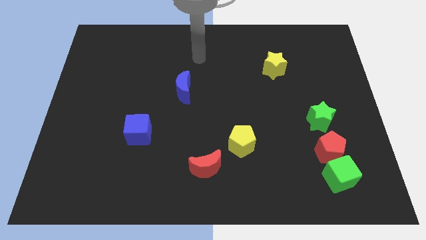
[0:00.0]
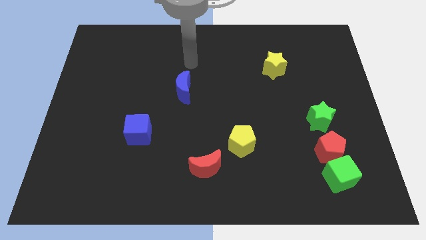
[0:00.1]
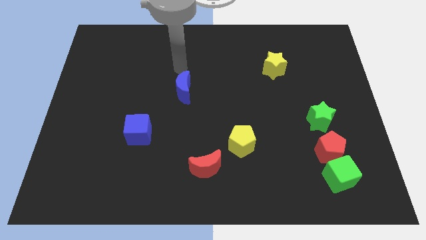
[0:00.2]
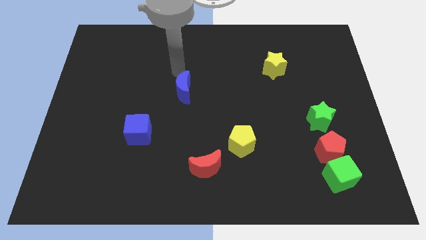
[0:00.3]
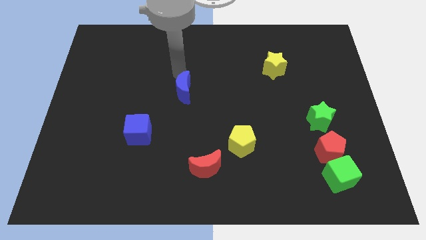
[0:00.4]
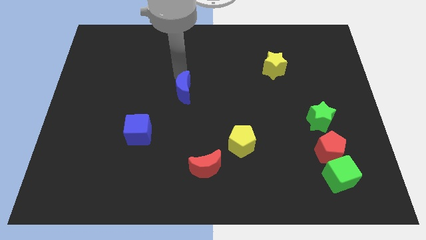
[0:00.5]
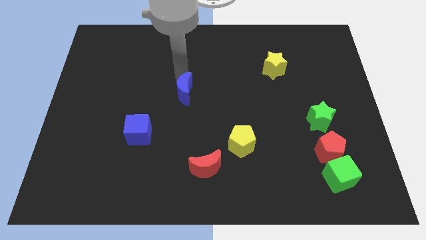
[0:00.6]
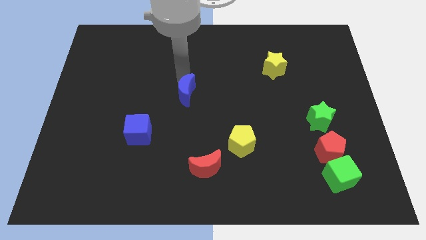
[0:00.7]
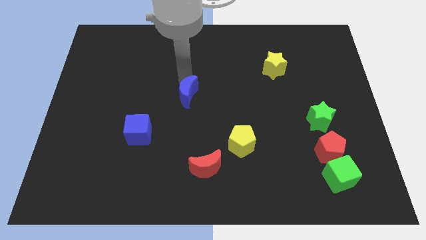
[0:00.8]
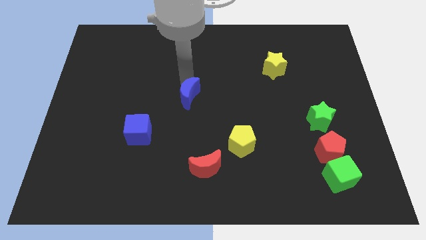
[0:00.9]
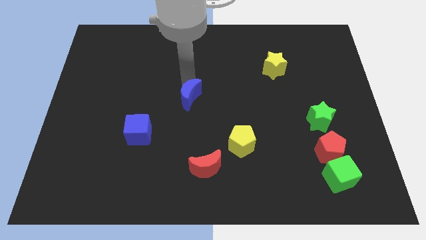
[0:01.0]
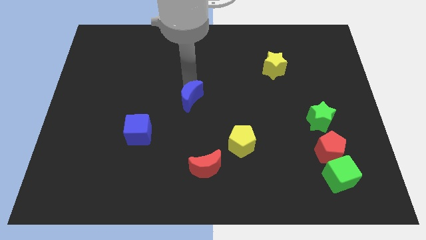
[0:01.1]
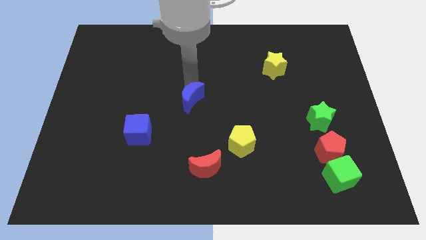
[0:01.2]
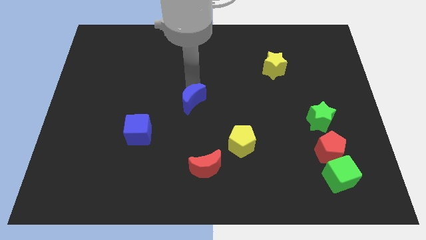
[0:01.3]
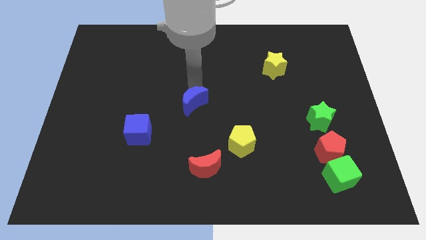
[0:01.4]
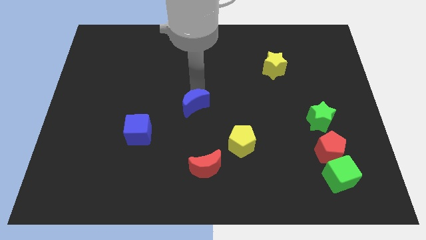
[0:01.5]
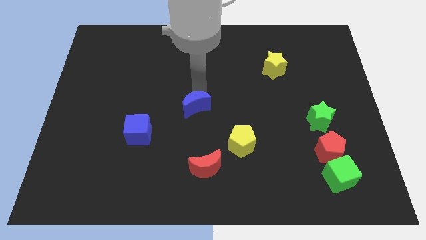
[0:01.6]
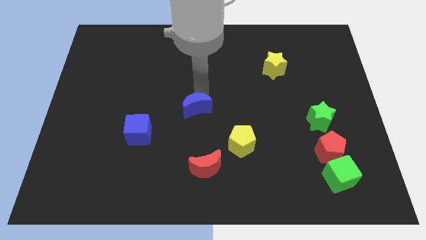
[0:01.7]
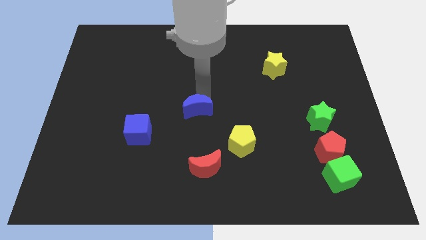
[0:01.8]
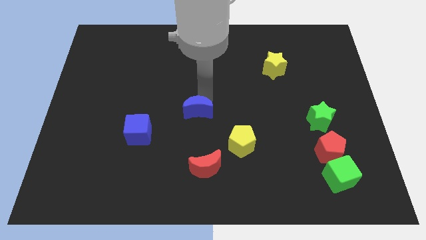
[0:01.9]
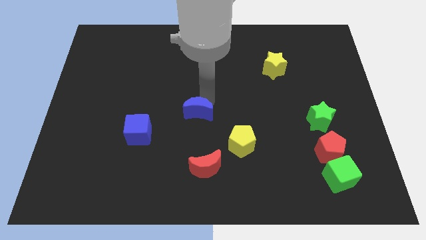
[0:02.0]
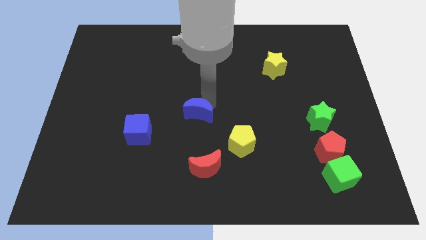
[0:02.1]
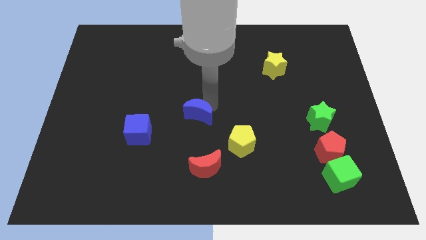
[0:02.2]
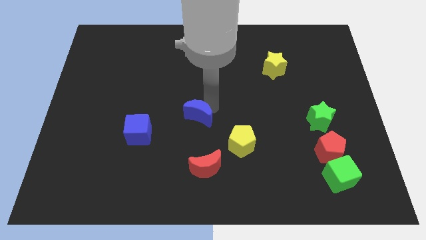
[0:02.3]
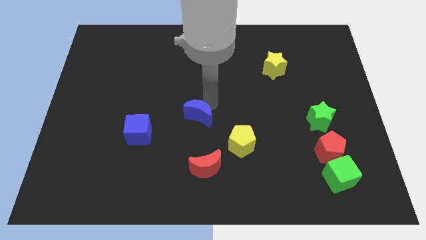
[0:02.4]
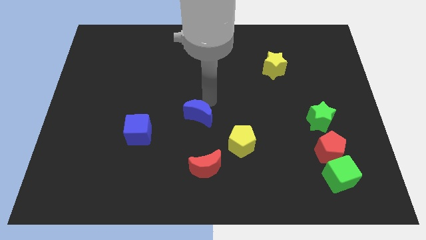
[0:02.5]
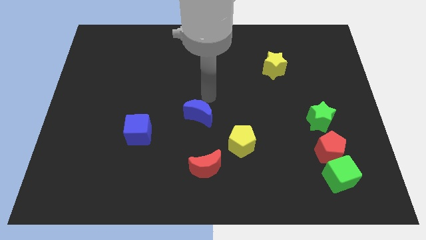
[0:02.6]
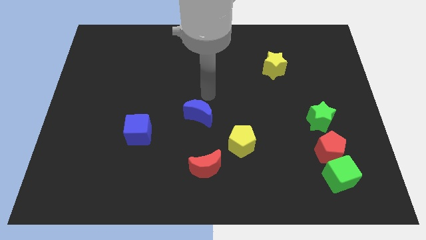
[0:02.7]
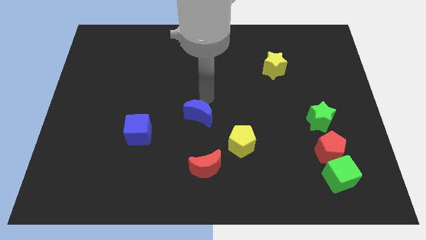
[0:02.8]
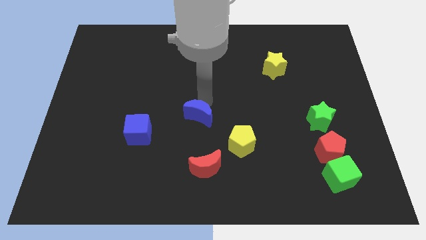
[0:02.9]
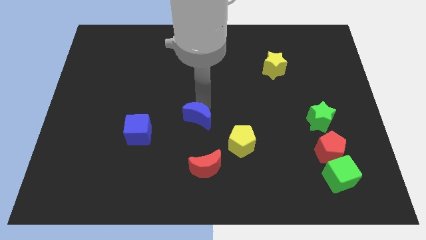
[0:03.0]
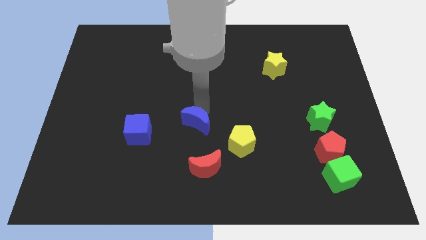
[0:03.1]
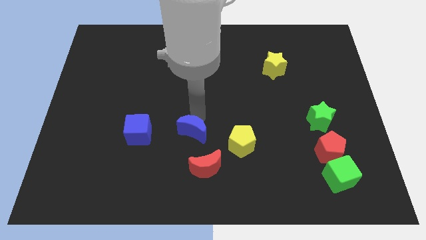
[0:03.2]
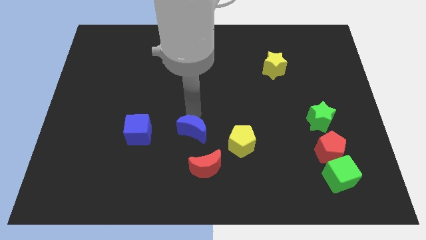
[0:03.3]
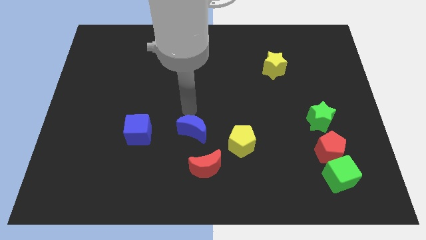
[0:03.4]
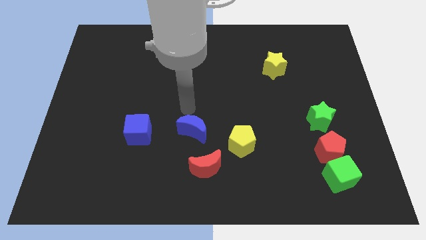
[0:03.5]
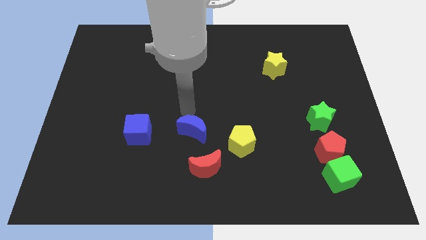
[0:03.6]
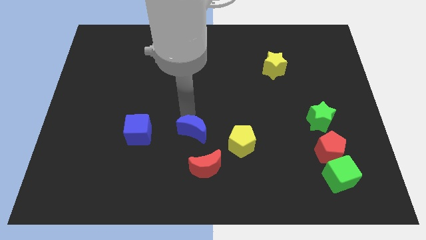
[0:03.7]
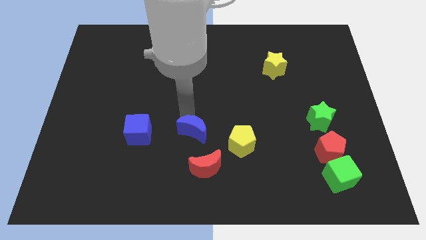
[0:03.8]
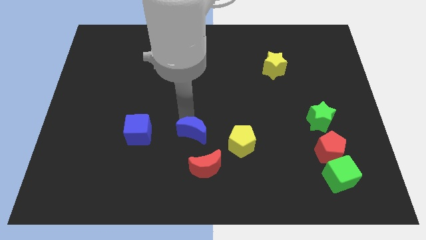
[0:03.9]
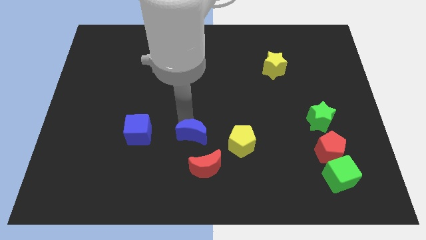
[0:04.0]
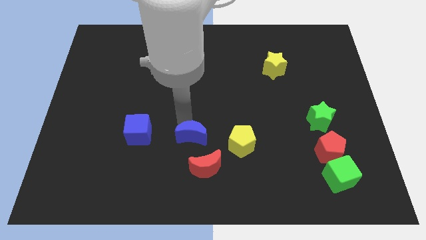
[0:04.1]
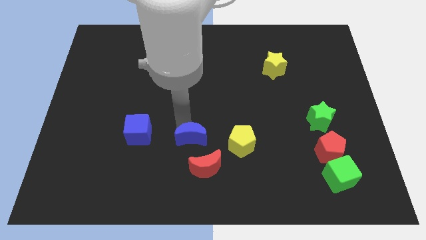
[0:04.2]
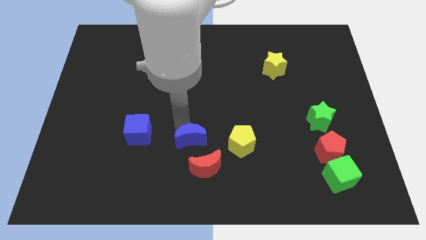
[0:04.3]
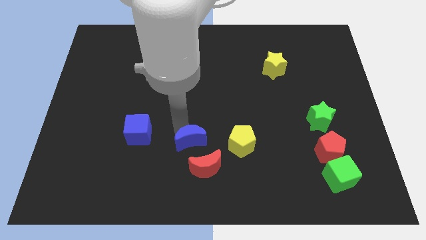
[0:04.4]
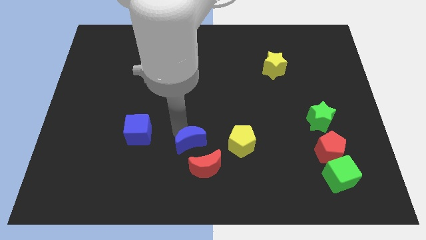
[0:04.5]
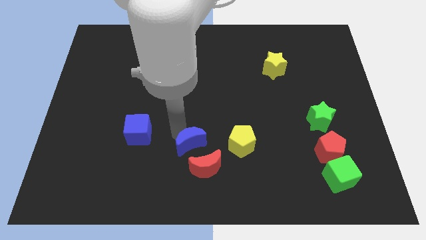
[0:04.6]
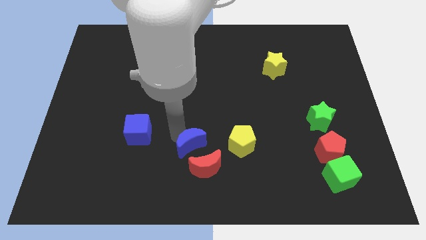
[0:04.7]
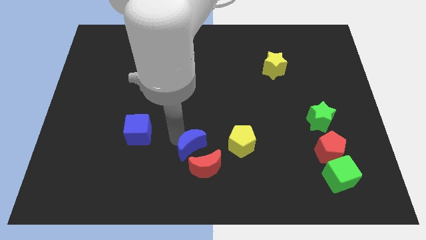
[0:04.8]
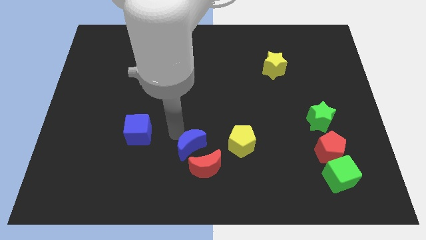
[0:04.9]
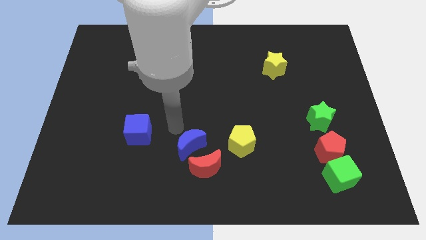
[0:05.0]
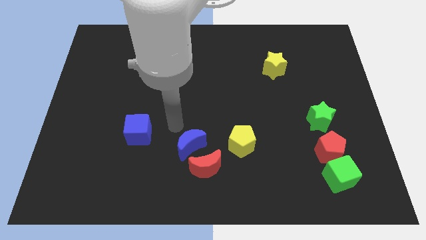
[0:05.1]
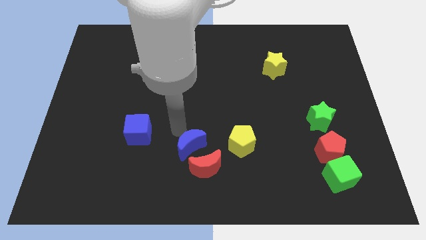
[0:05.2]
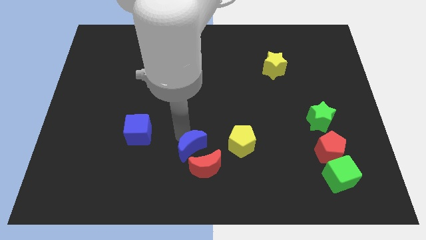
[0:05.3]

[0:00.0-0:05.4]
move the blue moon to the red moon

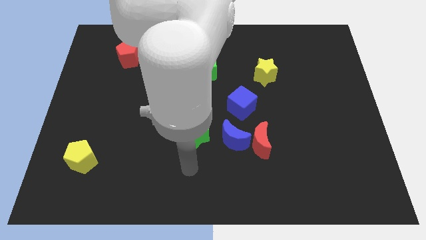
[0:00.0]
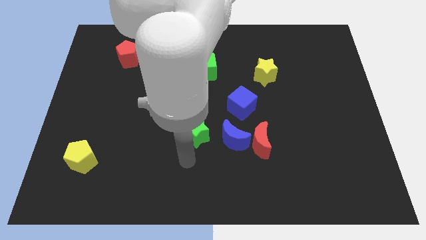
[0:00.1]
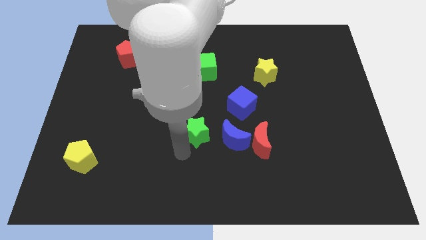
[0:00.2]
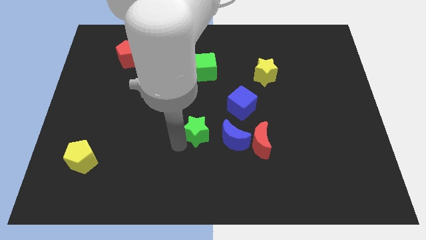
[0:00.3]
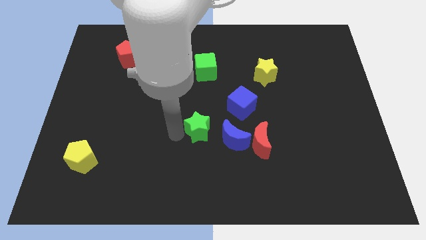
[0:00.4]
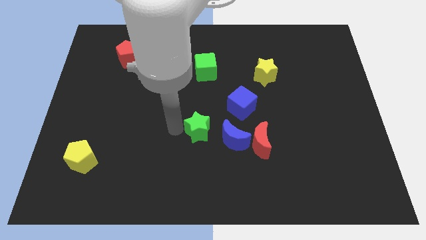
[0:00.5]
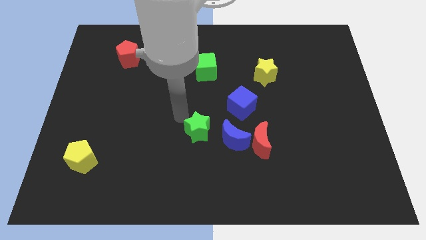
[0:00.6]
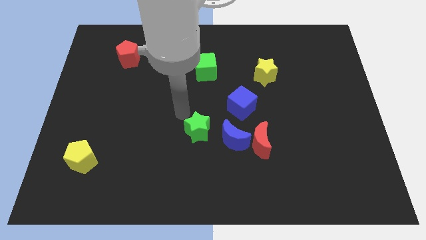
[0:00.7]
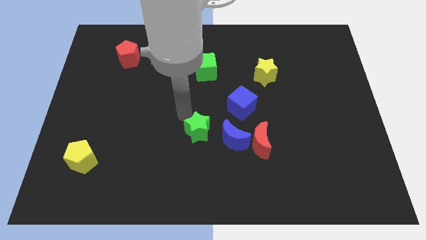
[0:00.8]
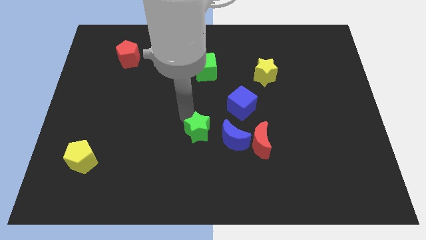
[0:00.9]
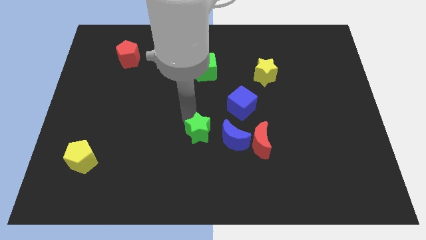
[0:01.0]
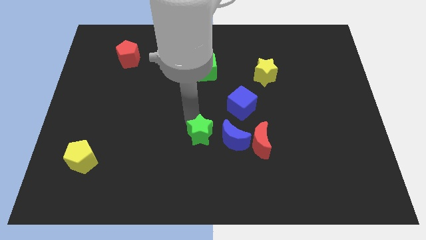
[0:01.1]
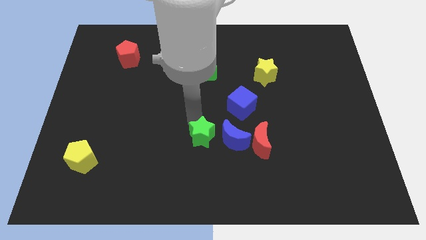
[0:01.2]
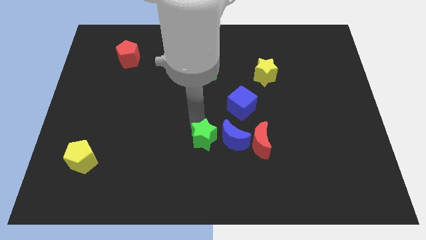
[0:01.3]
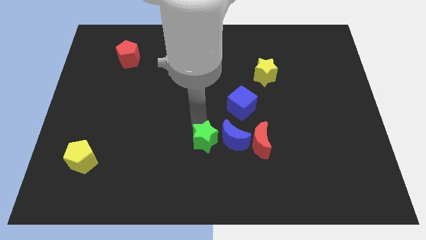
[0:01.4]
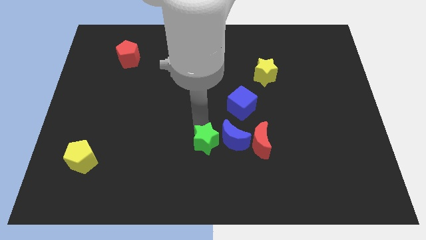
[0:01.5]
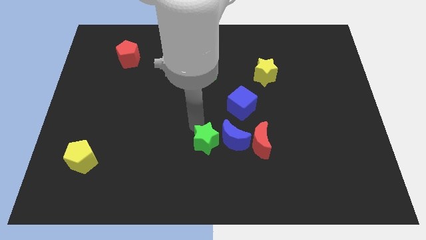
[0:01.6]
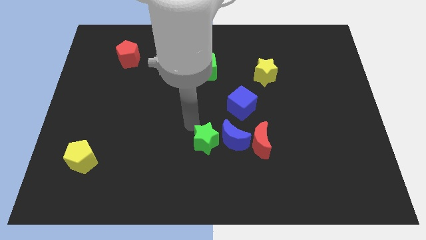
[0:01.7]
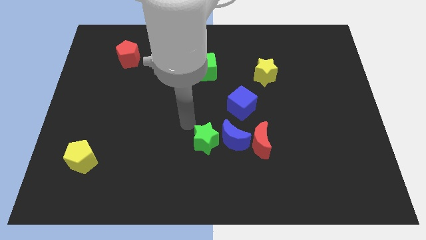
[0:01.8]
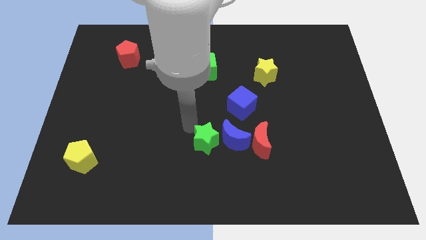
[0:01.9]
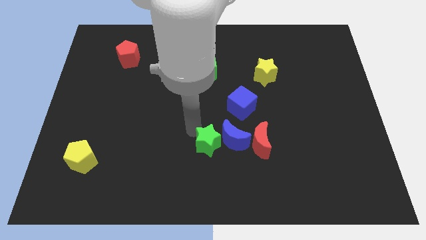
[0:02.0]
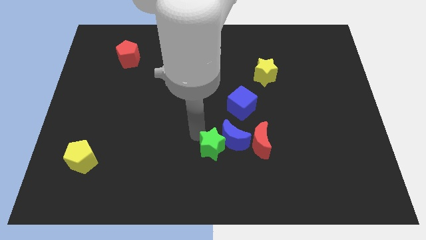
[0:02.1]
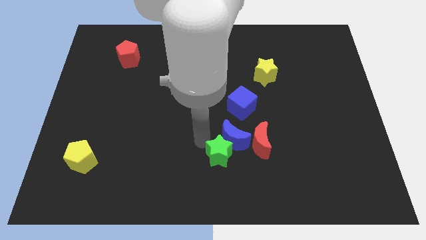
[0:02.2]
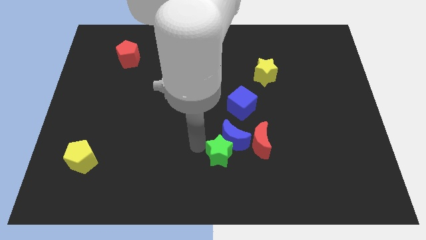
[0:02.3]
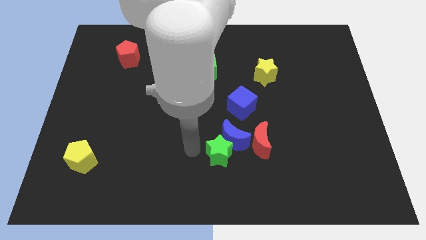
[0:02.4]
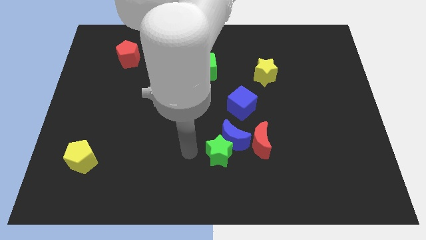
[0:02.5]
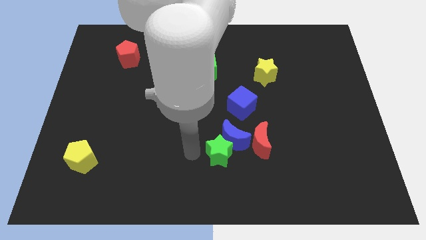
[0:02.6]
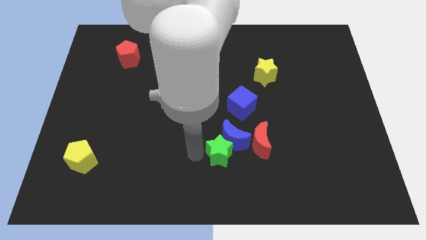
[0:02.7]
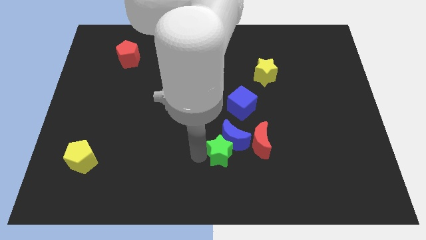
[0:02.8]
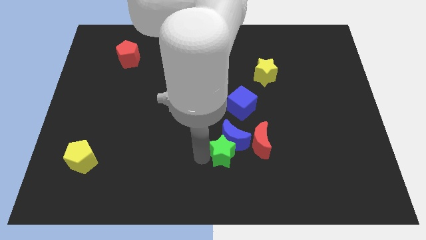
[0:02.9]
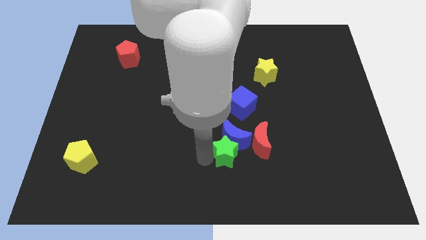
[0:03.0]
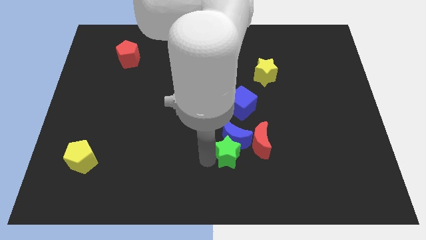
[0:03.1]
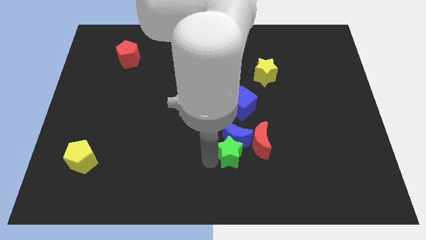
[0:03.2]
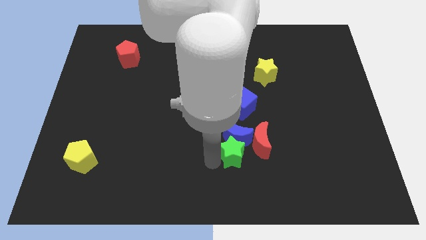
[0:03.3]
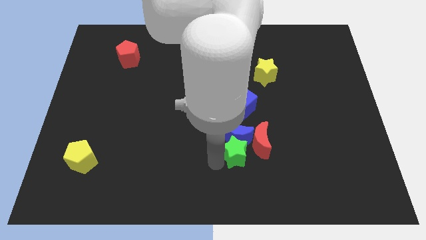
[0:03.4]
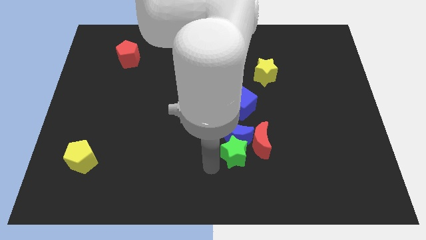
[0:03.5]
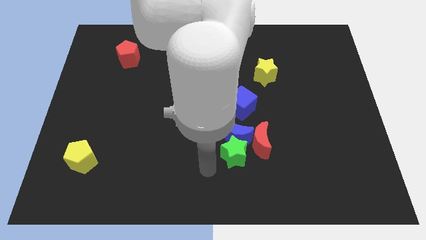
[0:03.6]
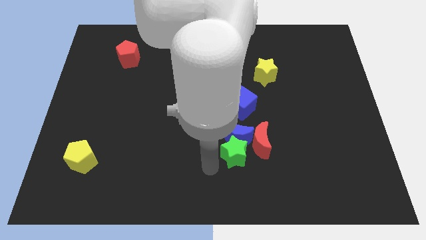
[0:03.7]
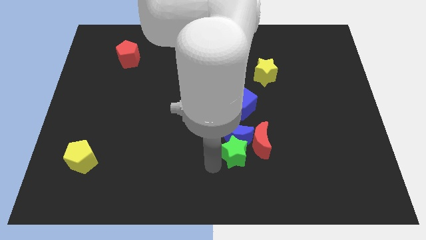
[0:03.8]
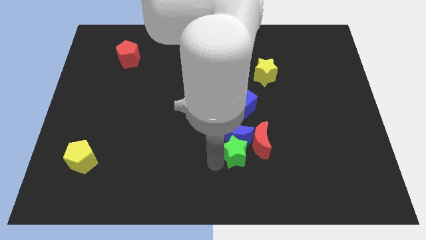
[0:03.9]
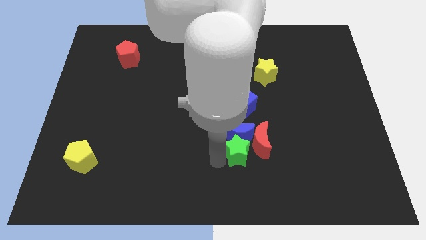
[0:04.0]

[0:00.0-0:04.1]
push the green star close to the red moon
